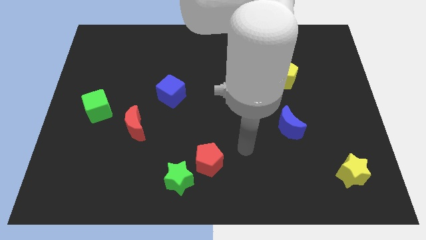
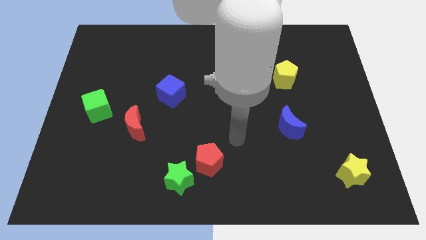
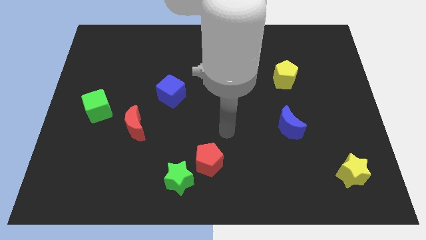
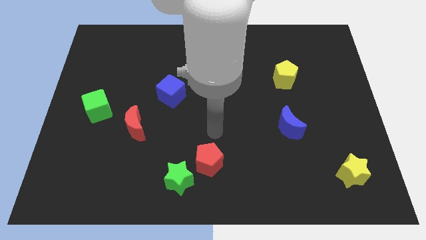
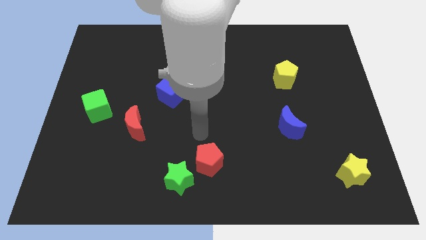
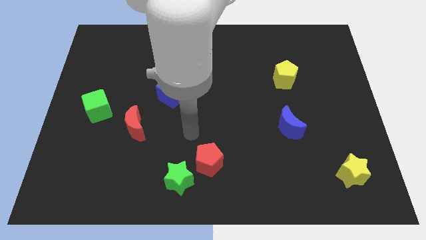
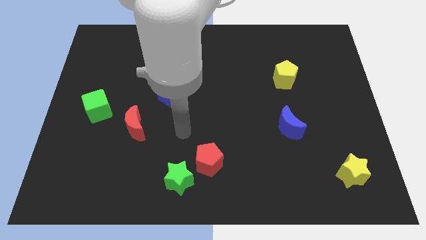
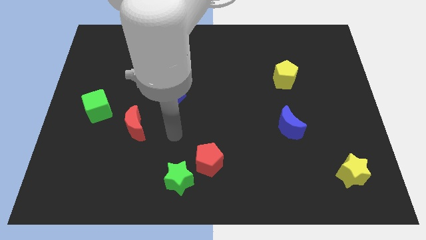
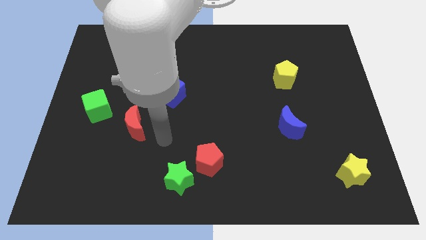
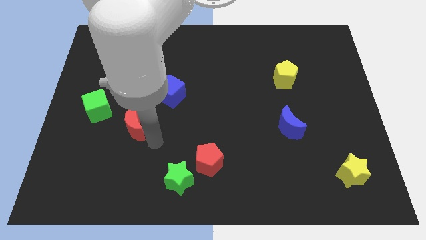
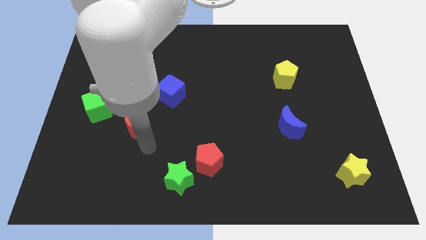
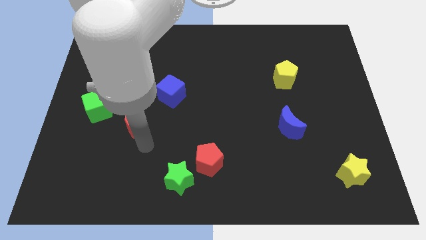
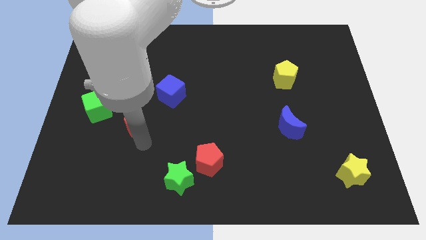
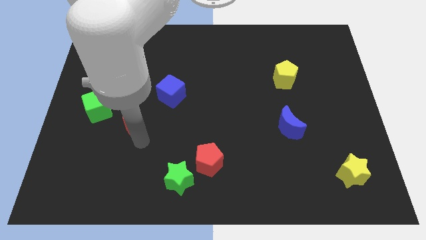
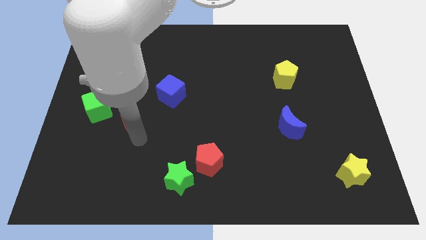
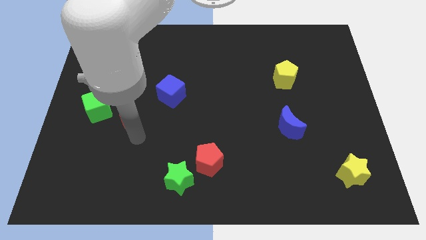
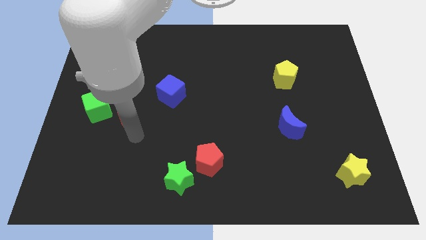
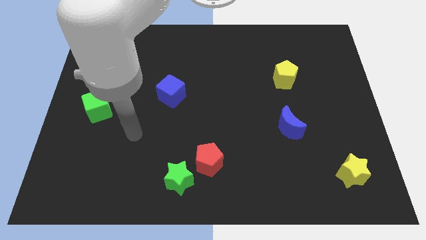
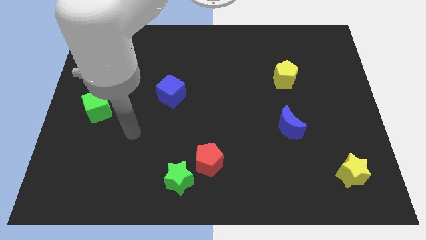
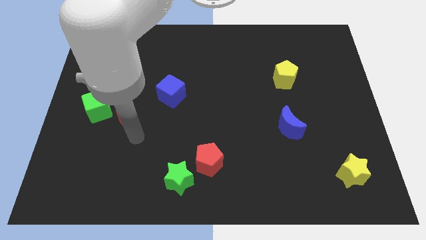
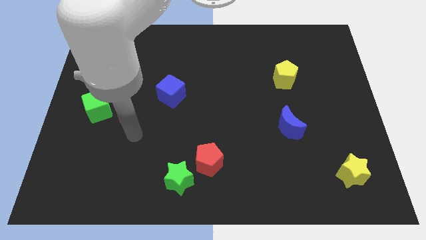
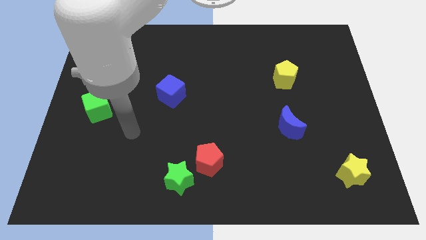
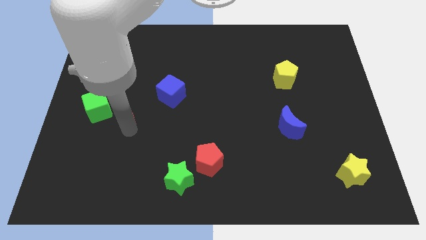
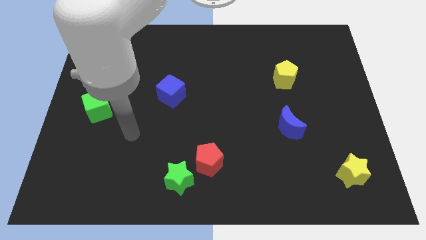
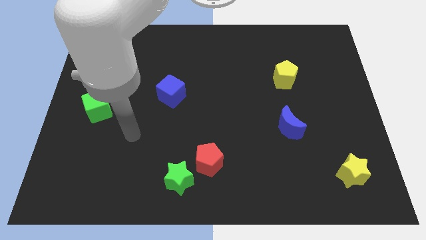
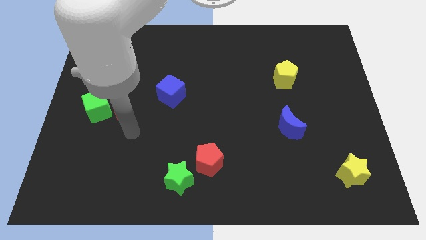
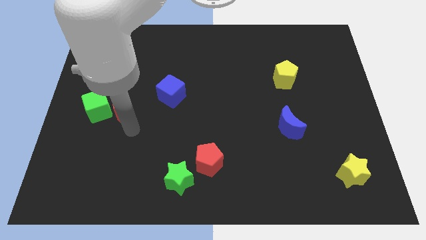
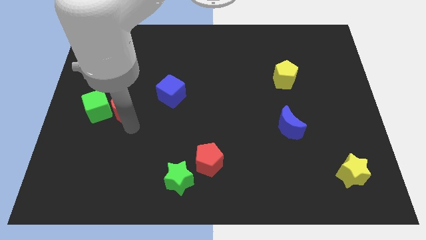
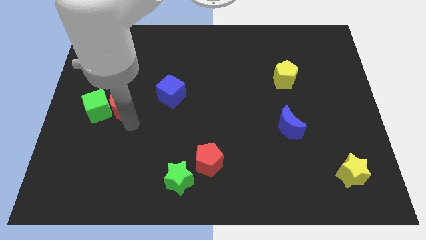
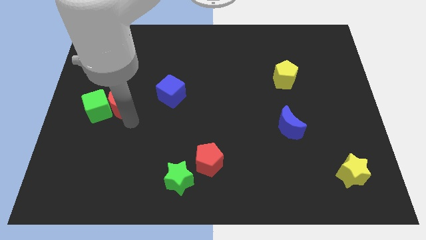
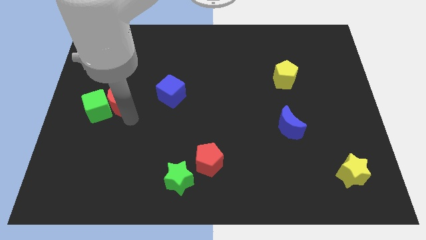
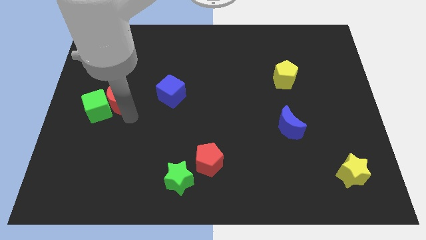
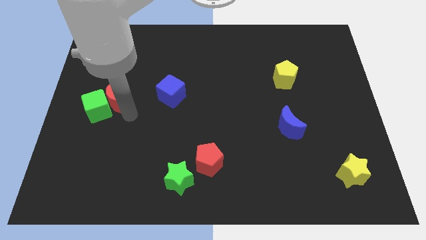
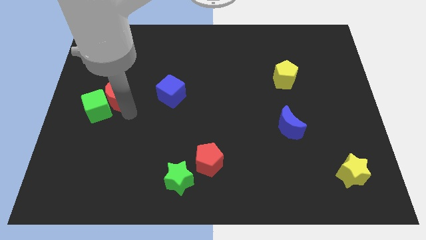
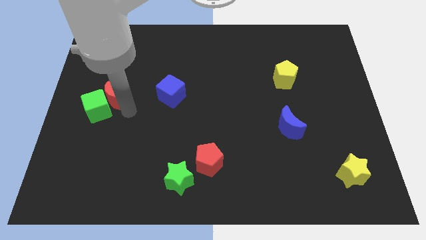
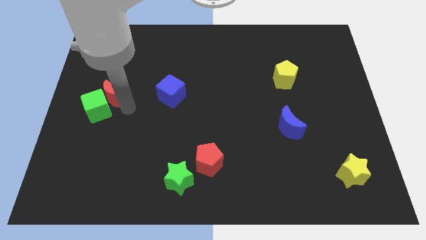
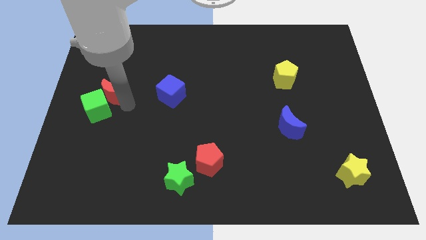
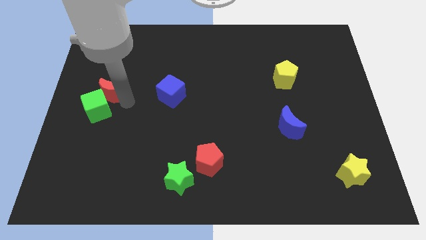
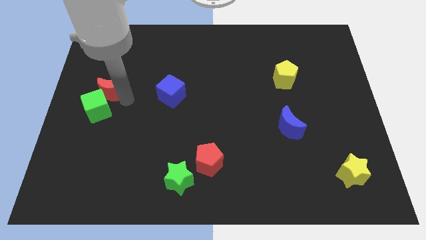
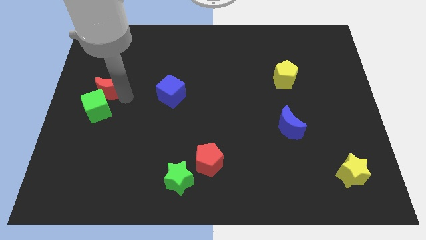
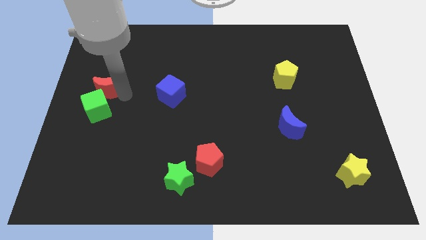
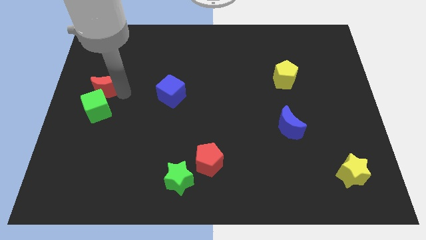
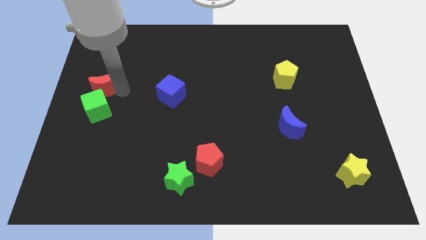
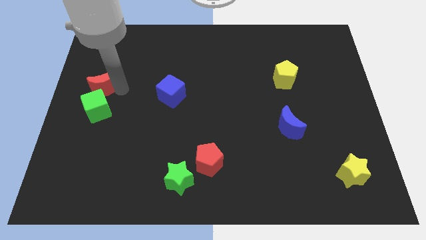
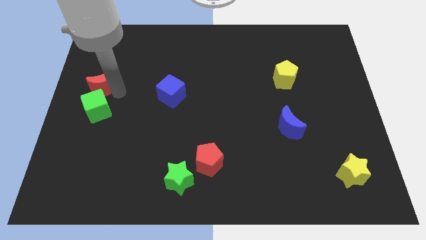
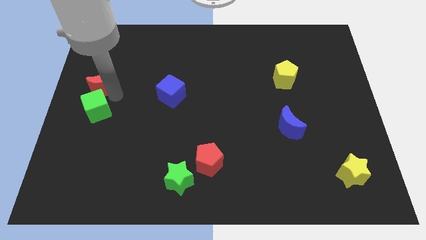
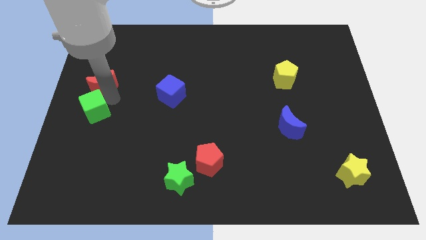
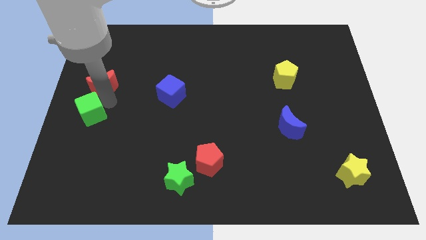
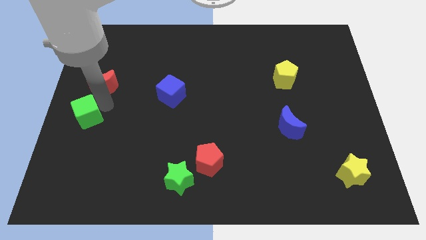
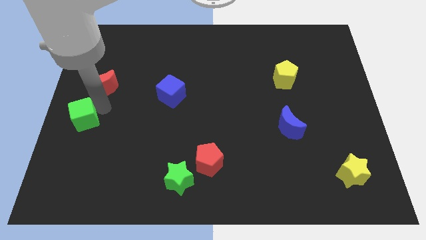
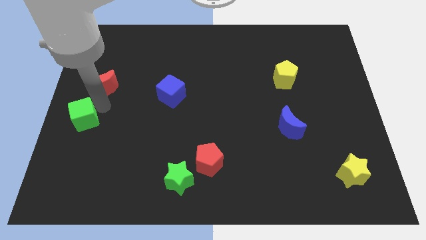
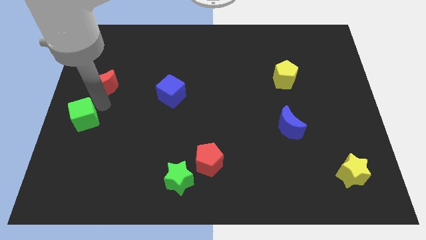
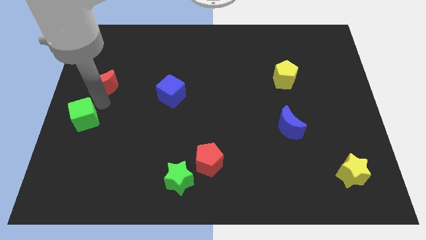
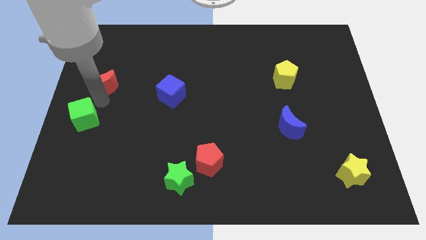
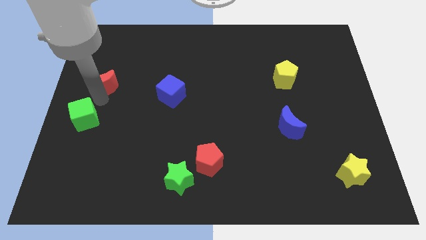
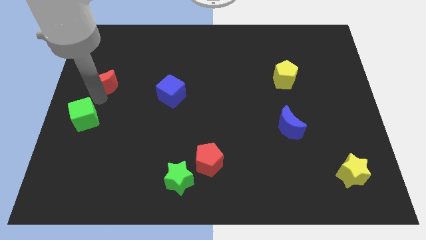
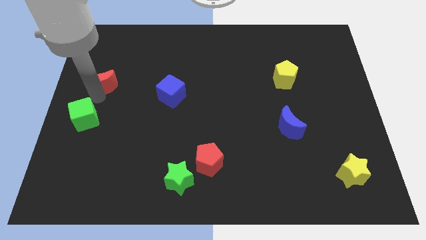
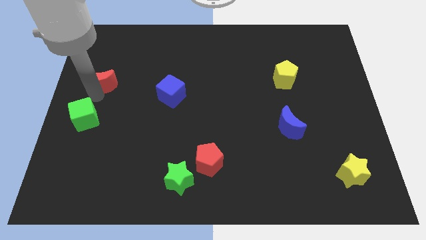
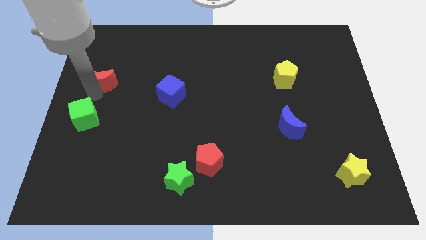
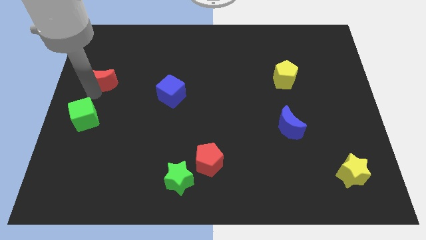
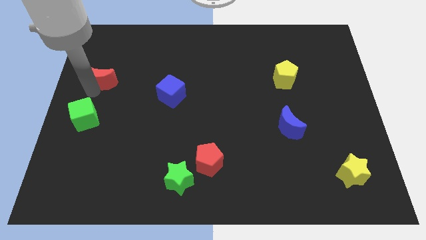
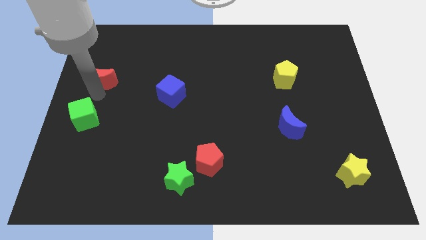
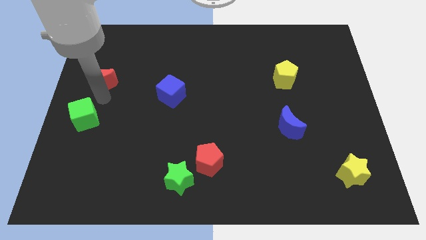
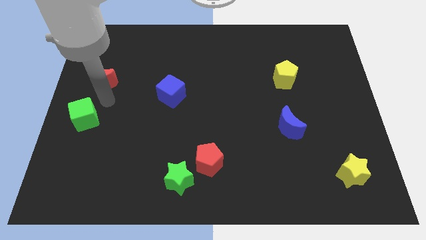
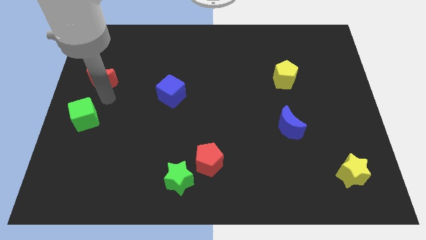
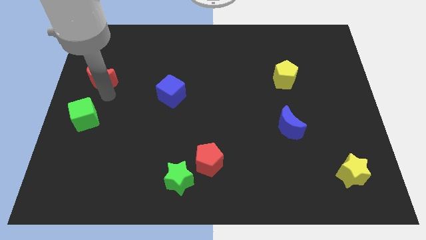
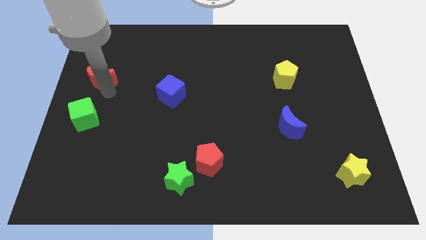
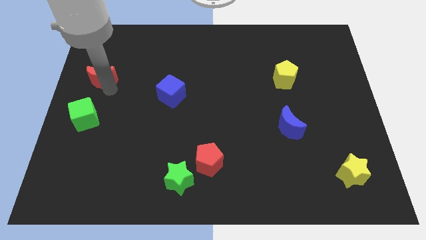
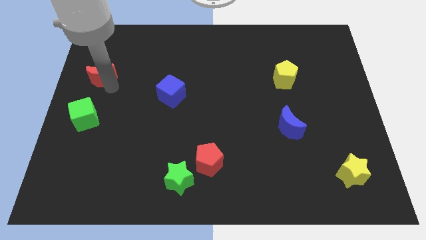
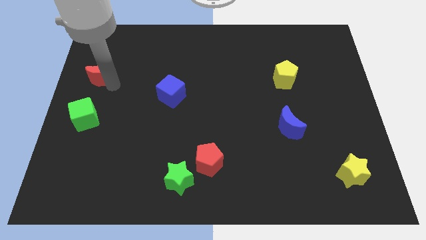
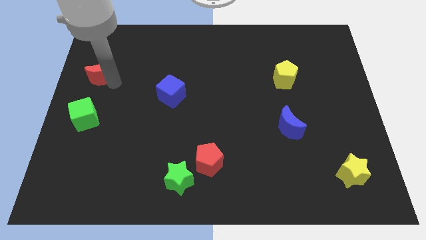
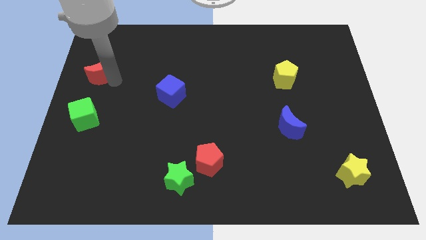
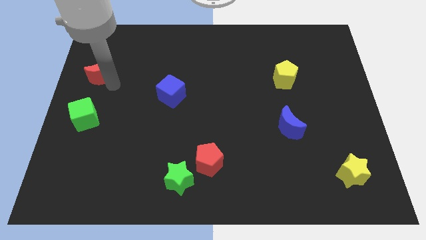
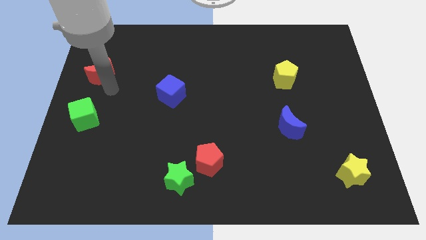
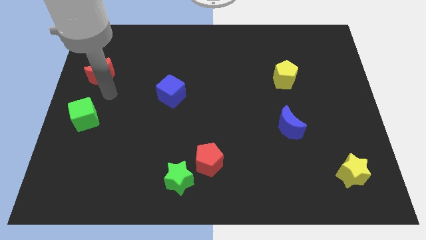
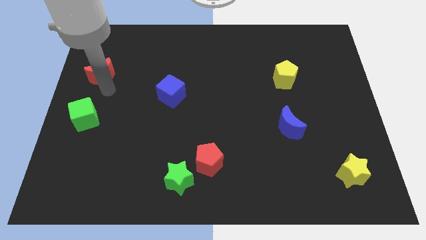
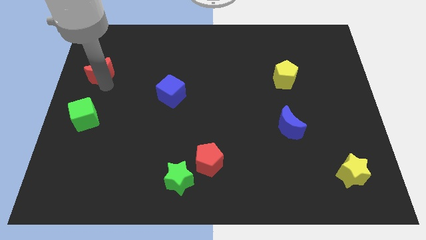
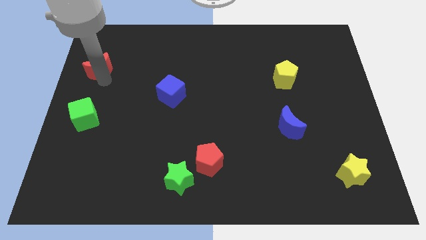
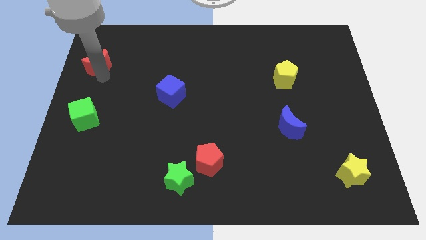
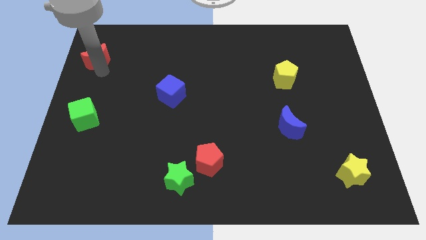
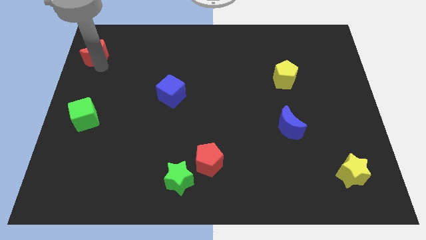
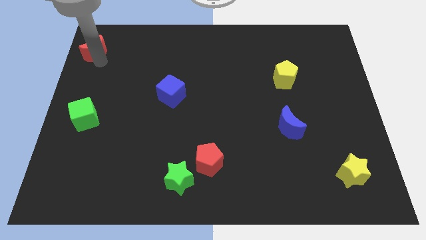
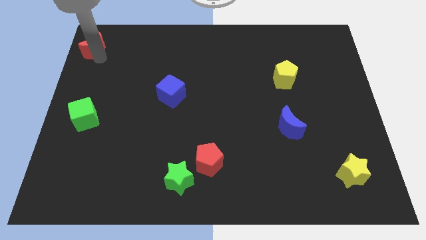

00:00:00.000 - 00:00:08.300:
put the red moon to the top left of the board
